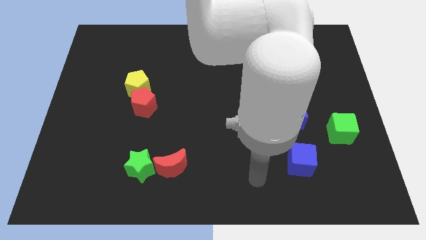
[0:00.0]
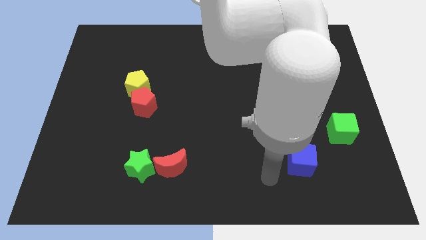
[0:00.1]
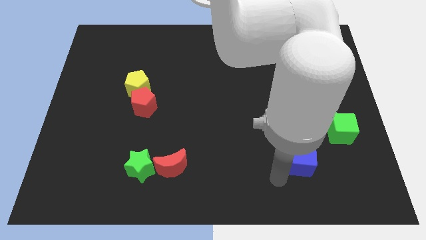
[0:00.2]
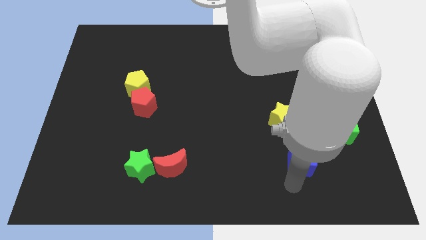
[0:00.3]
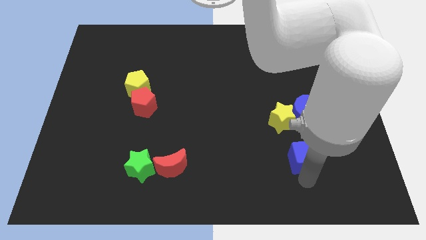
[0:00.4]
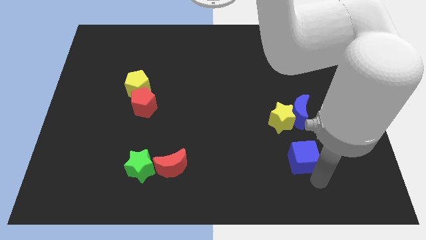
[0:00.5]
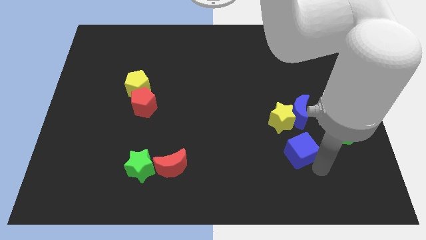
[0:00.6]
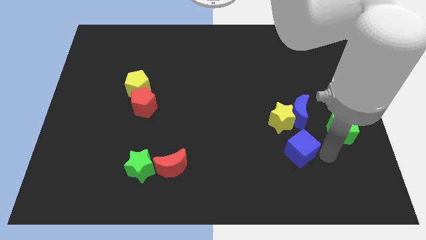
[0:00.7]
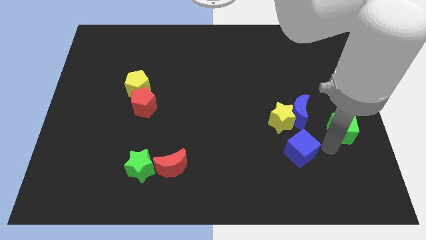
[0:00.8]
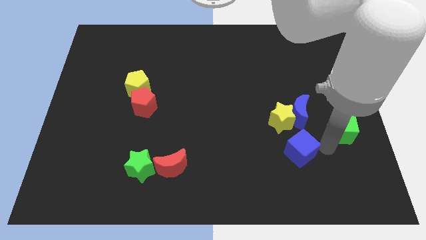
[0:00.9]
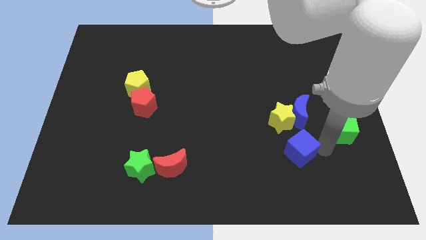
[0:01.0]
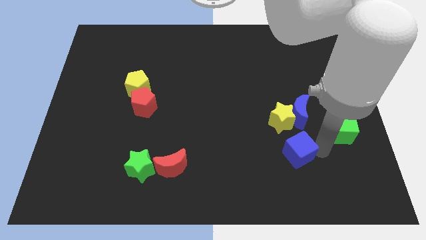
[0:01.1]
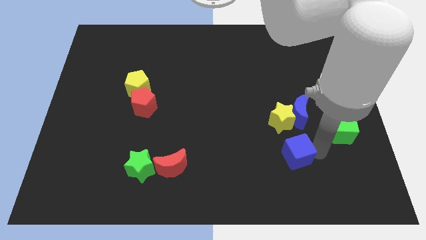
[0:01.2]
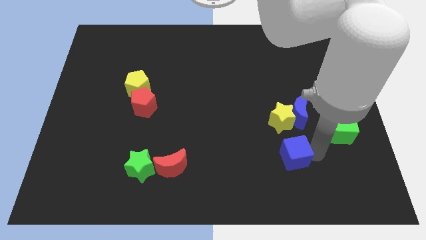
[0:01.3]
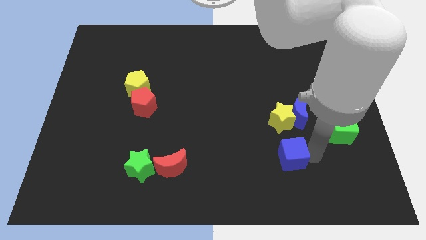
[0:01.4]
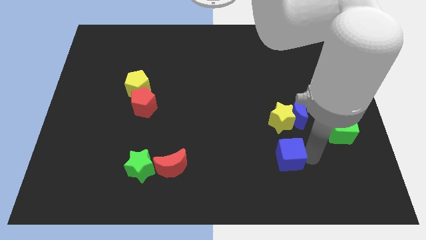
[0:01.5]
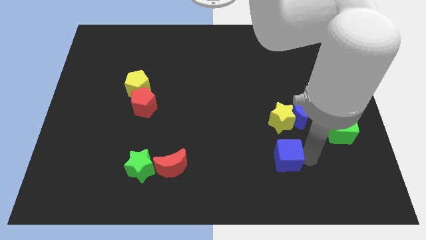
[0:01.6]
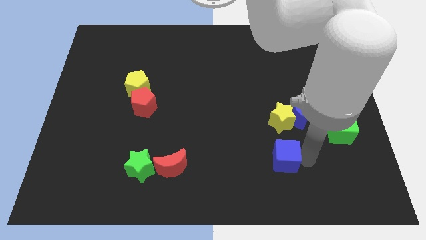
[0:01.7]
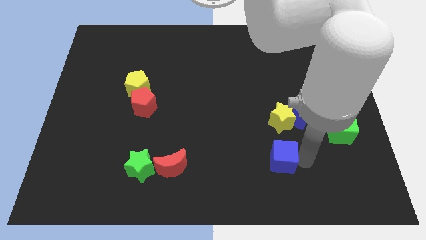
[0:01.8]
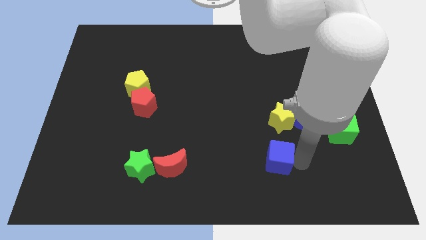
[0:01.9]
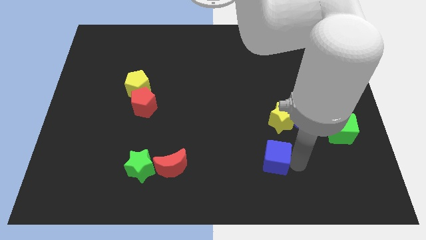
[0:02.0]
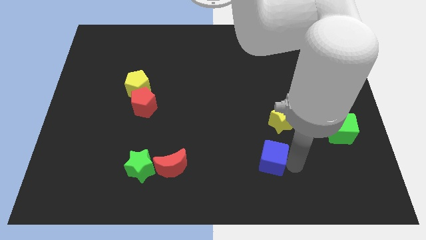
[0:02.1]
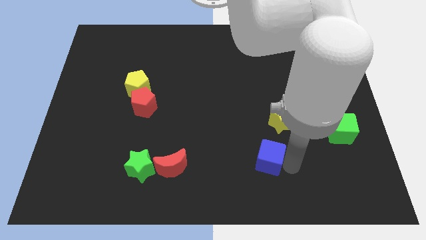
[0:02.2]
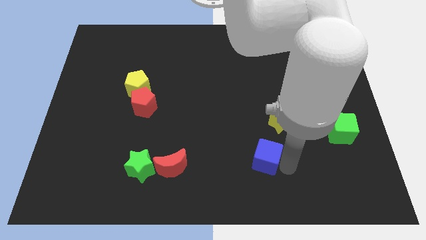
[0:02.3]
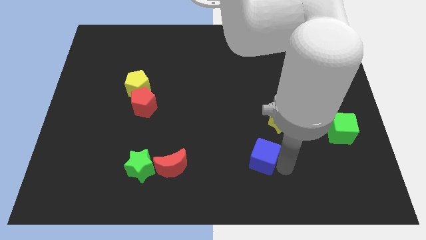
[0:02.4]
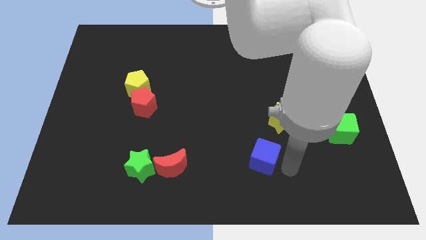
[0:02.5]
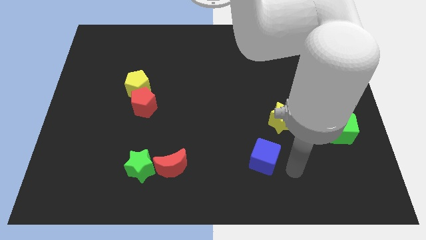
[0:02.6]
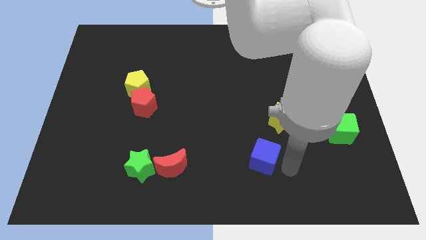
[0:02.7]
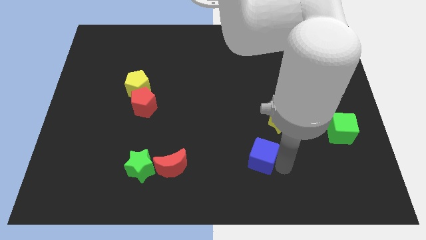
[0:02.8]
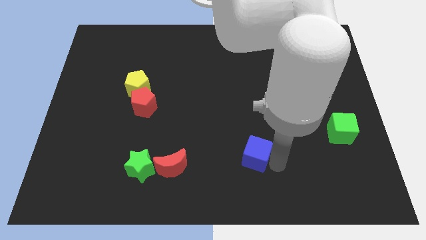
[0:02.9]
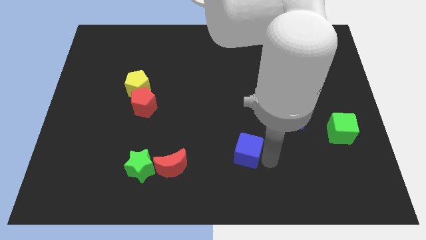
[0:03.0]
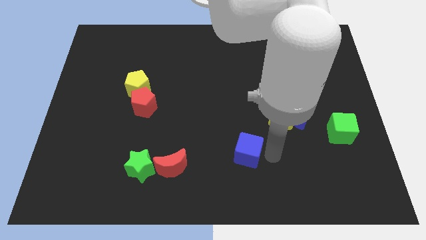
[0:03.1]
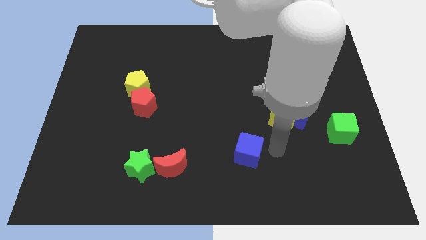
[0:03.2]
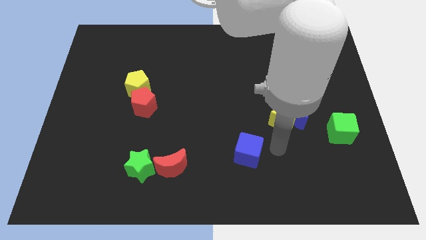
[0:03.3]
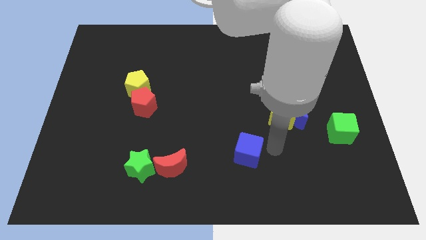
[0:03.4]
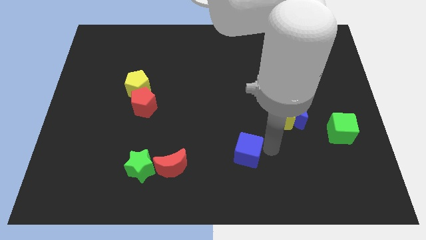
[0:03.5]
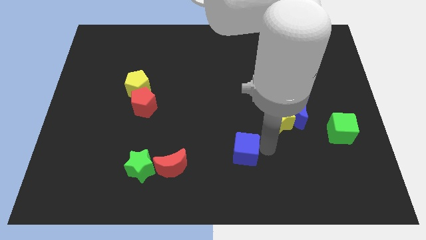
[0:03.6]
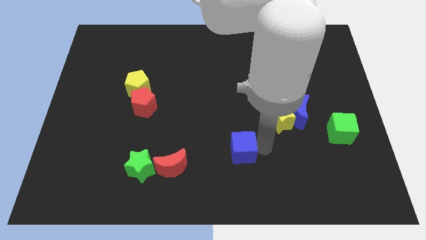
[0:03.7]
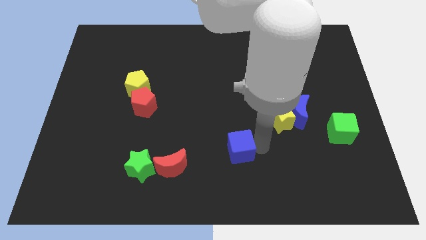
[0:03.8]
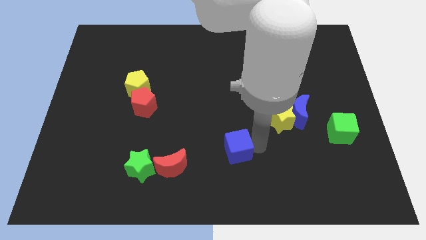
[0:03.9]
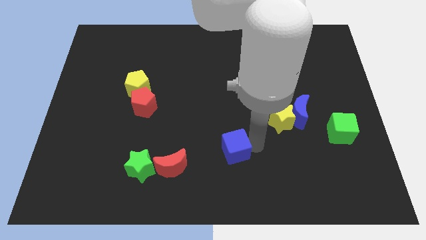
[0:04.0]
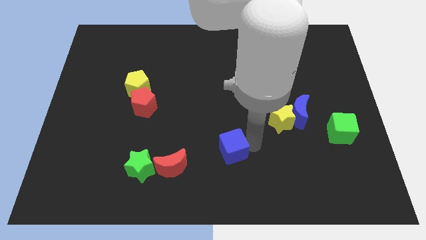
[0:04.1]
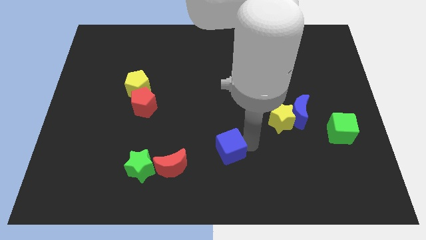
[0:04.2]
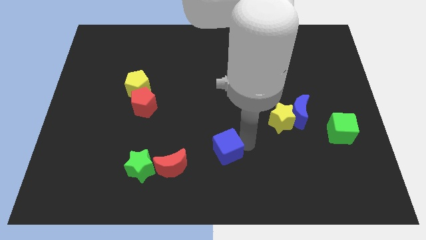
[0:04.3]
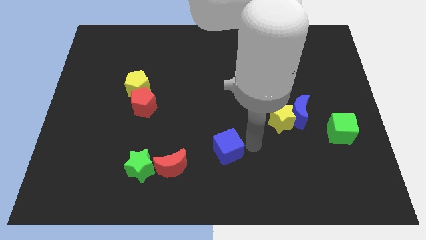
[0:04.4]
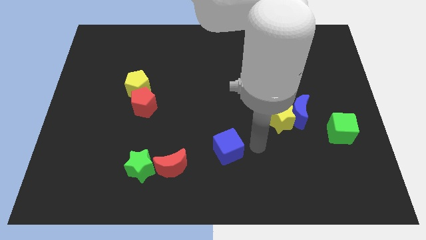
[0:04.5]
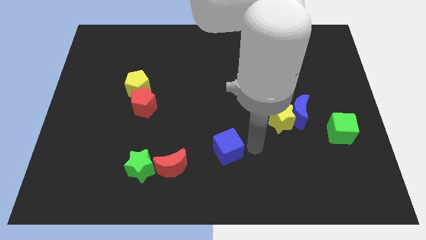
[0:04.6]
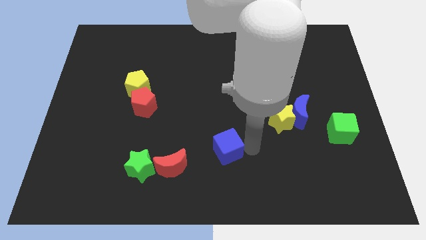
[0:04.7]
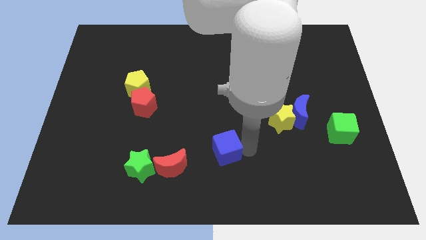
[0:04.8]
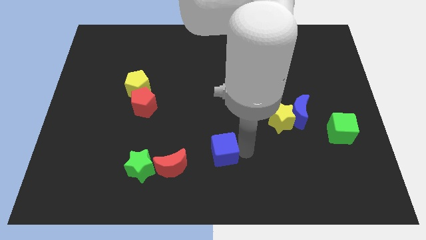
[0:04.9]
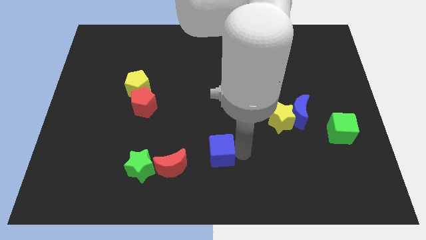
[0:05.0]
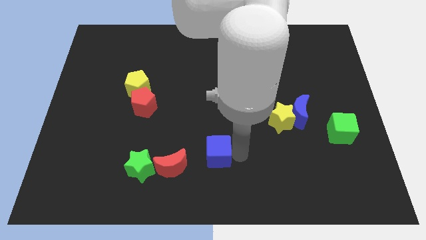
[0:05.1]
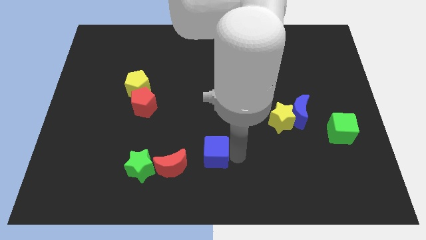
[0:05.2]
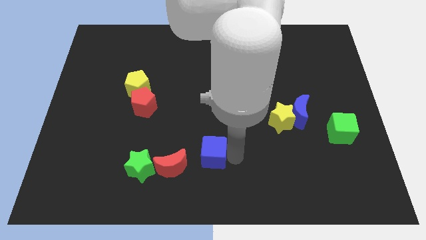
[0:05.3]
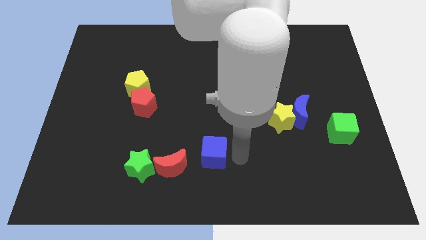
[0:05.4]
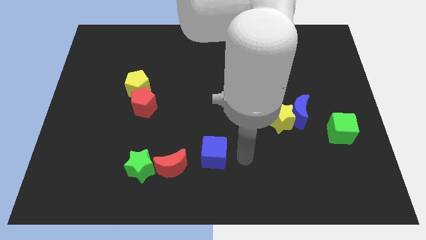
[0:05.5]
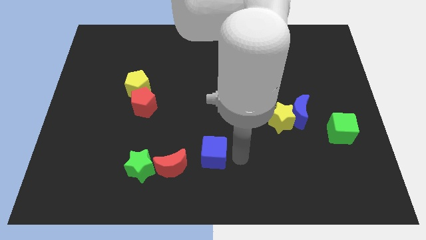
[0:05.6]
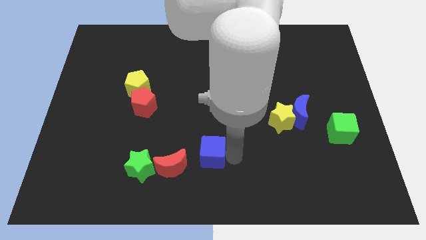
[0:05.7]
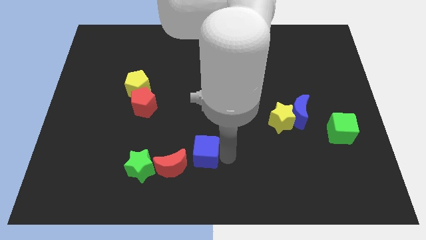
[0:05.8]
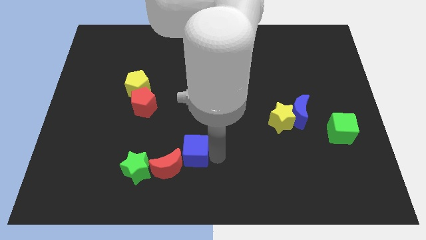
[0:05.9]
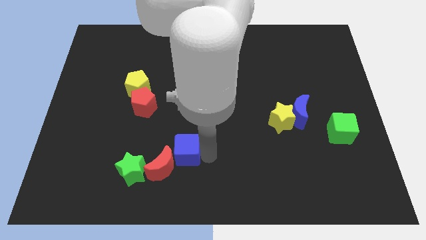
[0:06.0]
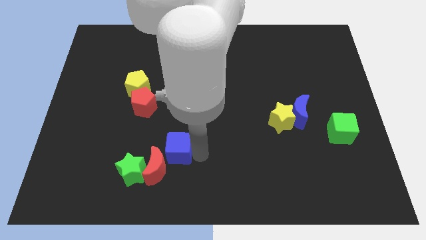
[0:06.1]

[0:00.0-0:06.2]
slide the blue cube to the top right side of the green star
